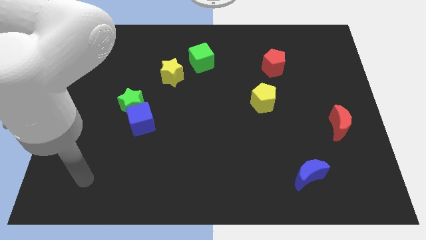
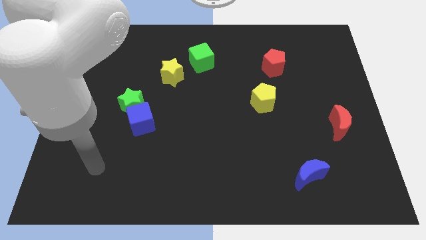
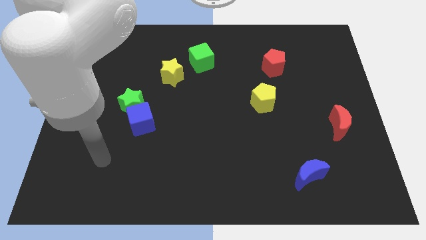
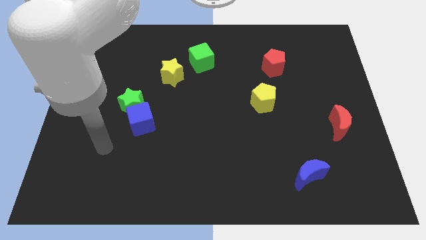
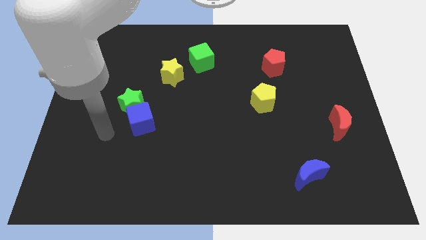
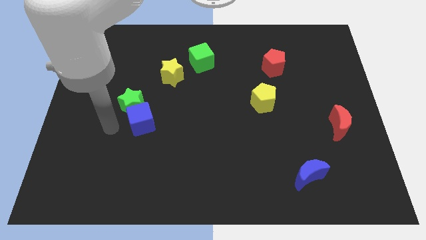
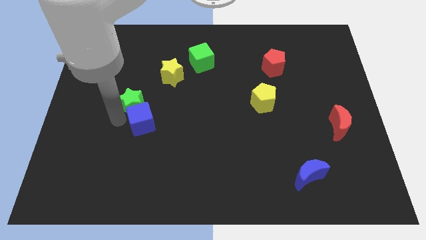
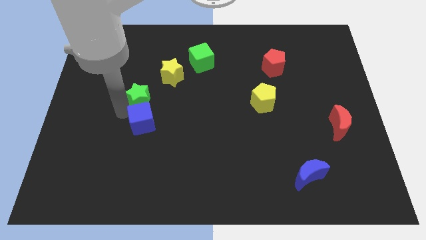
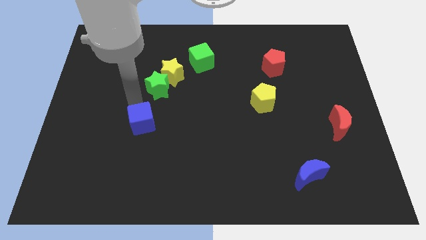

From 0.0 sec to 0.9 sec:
separate the blue cube from the green star

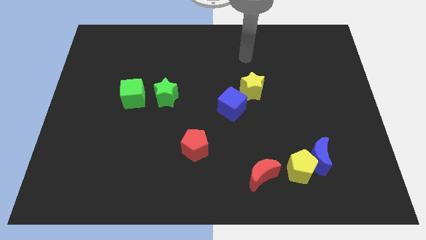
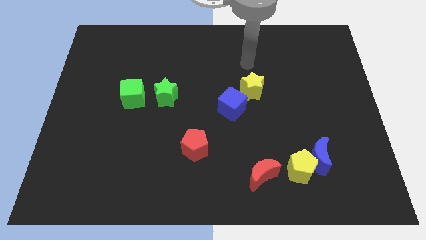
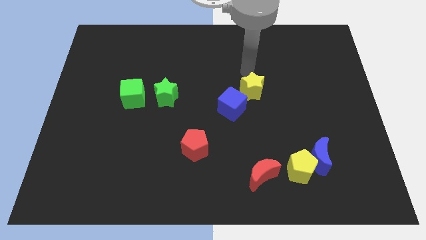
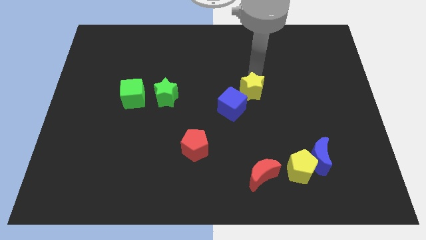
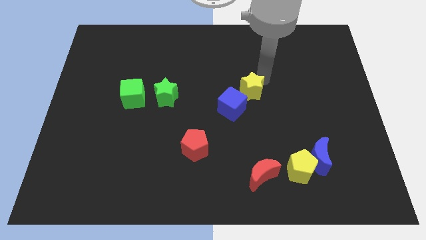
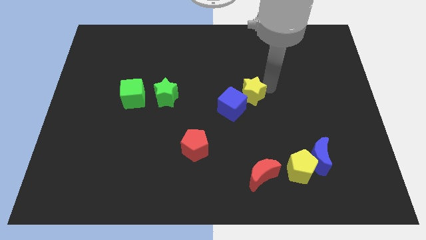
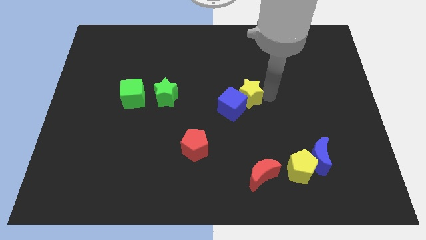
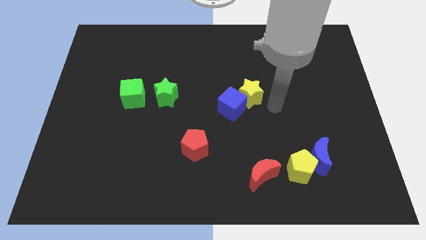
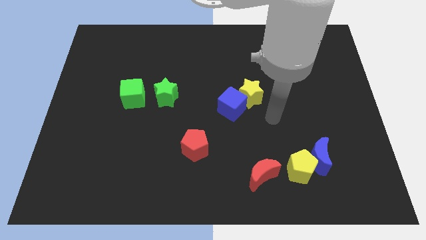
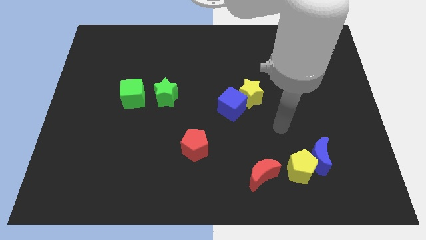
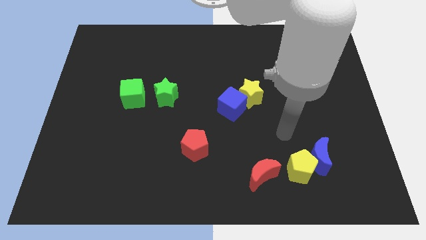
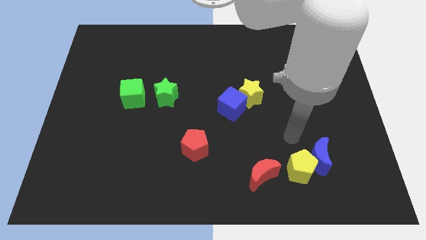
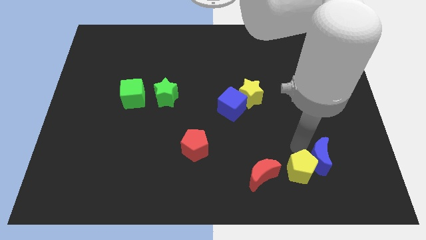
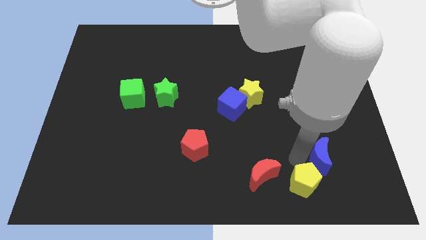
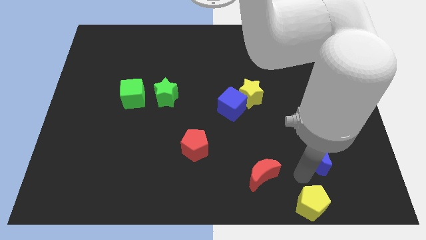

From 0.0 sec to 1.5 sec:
separate the blue moon from the yellow pentagon

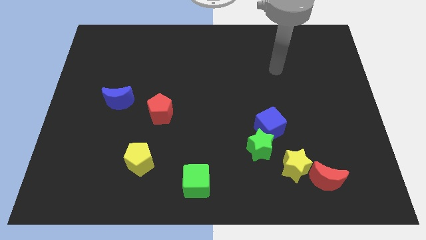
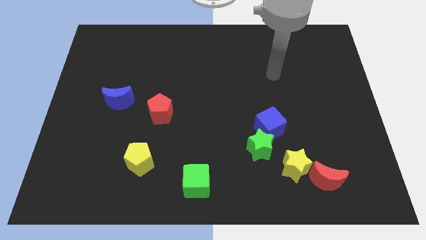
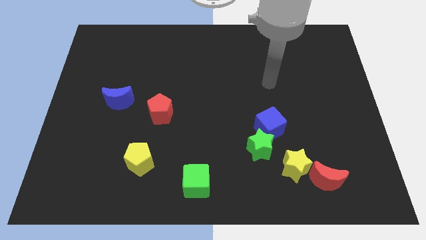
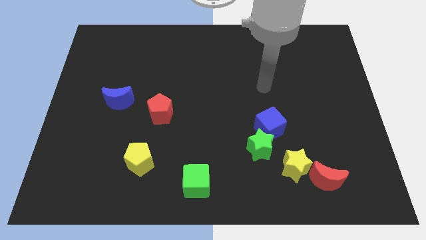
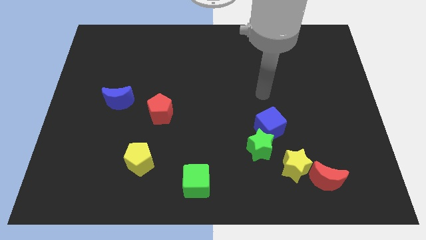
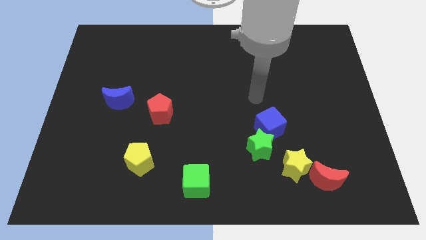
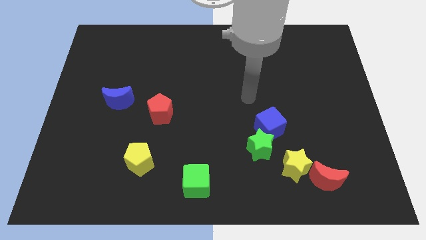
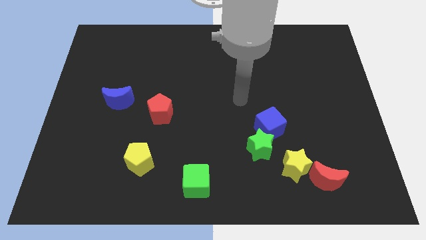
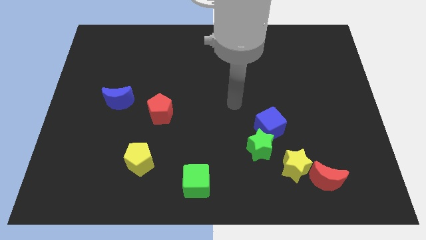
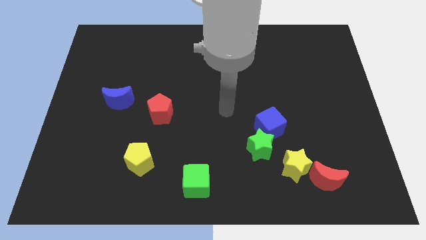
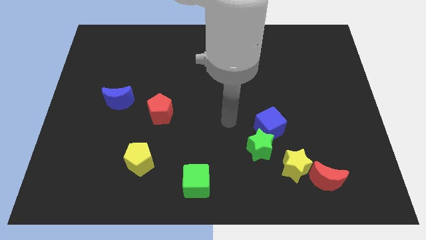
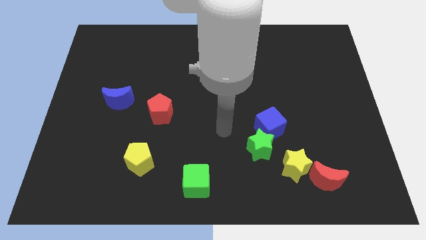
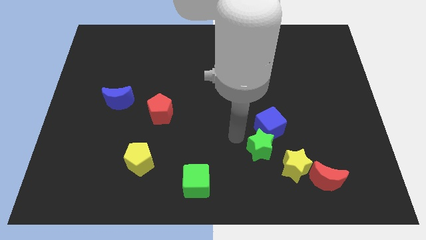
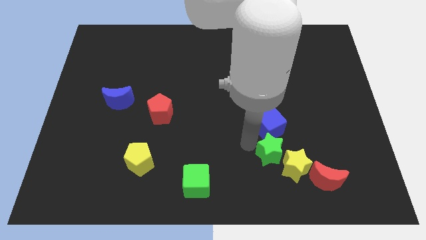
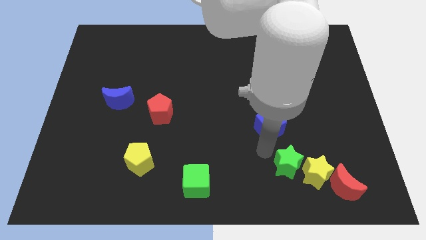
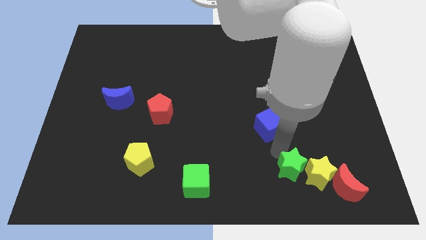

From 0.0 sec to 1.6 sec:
pull the blue cube apart from the green star

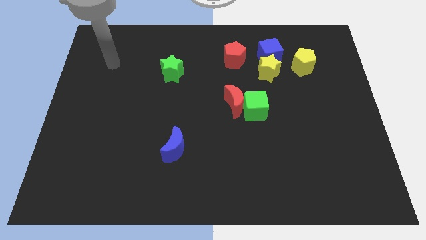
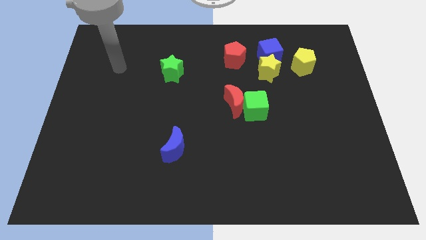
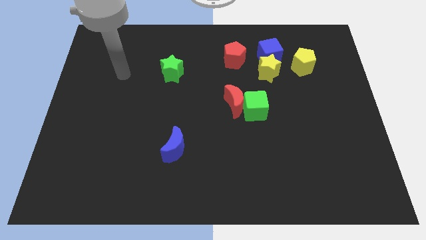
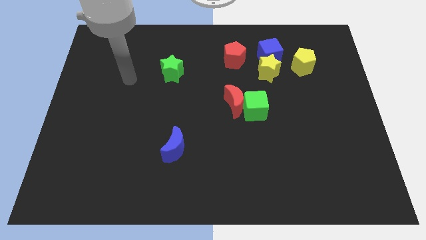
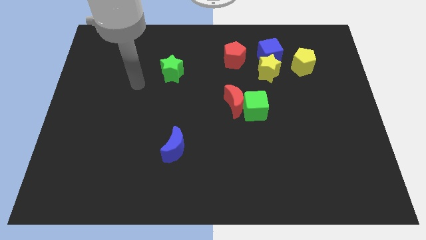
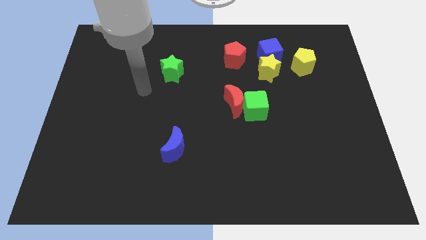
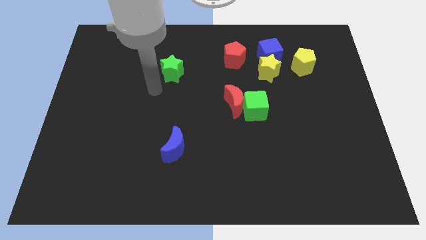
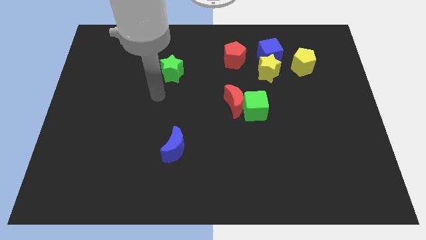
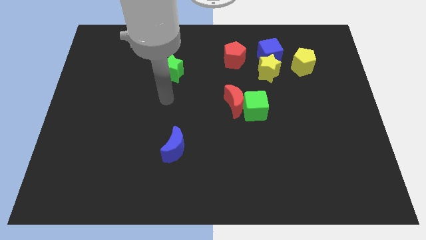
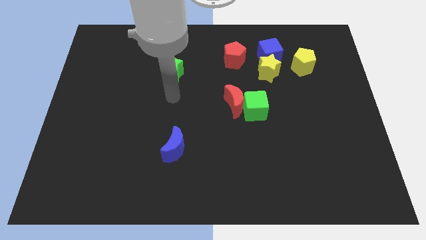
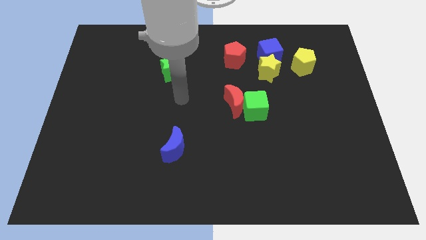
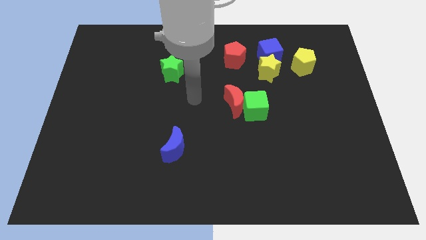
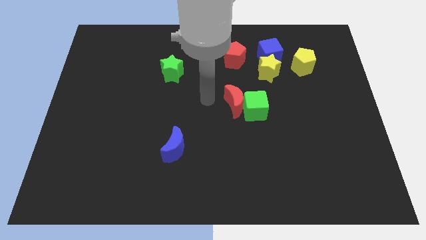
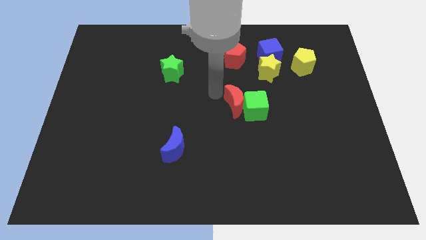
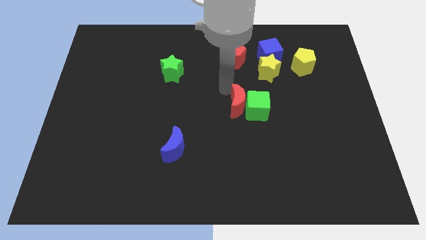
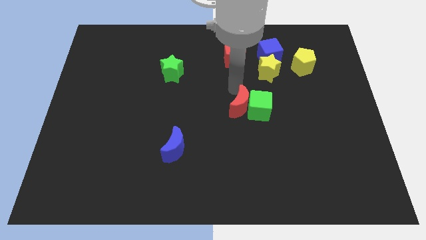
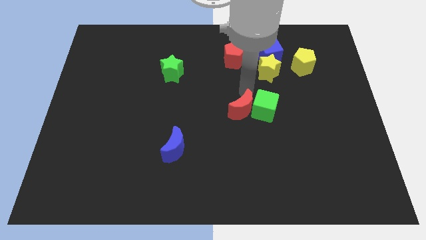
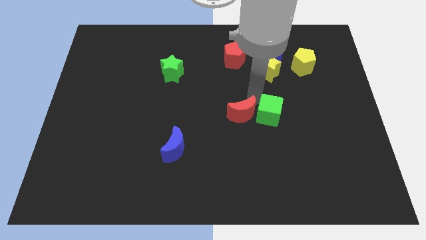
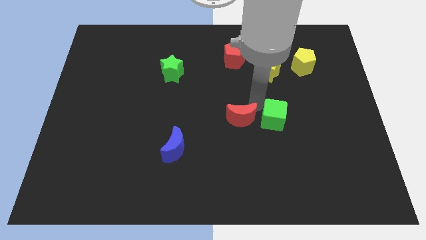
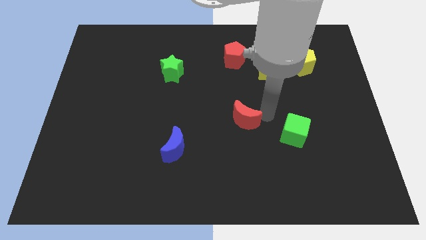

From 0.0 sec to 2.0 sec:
pull the red moon apart from the green cube

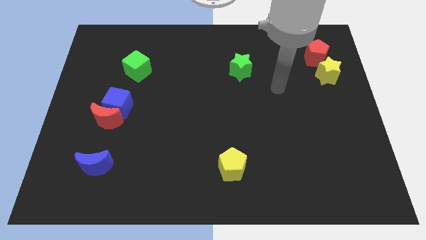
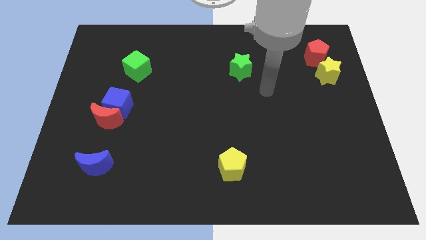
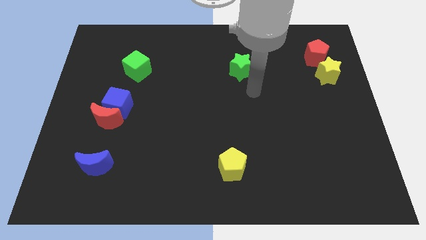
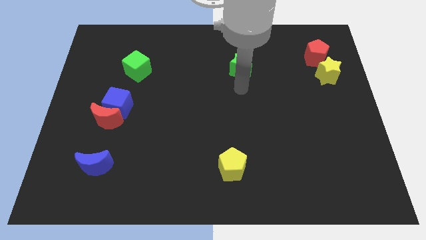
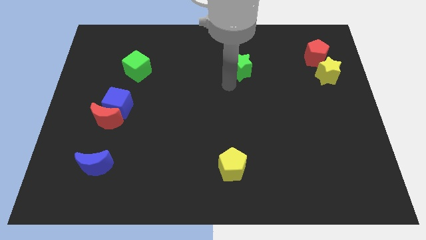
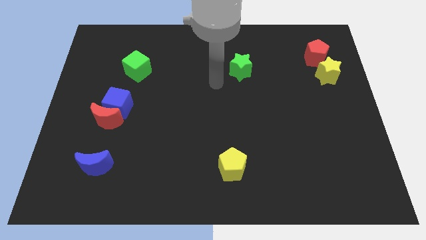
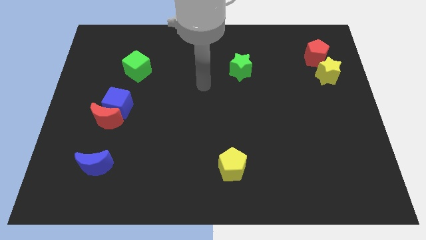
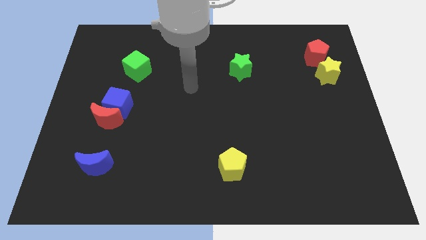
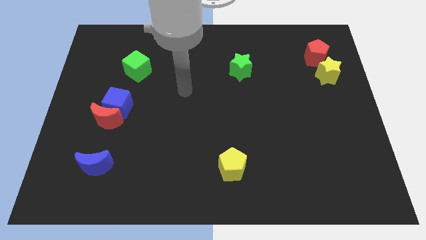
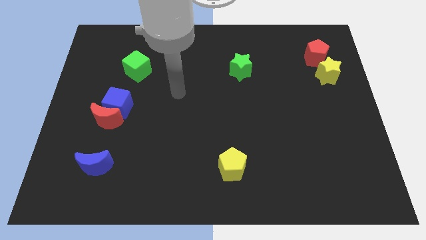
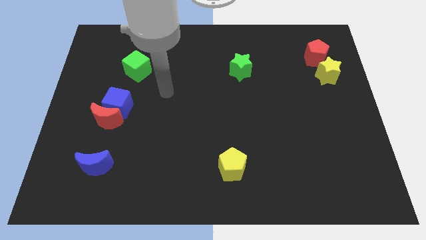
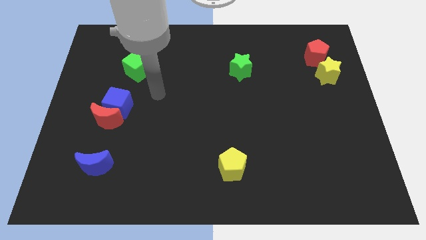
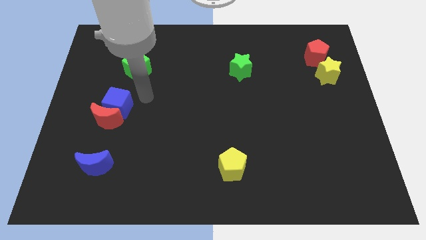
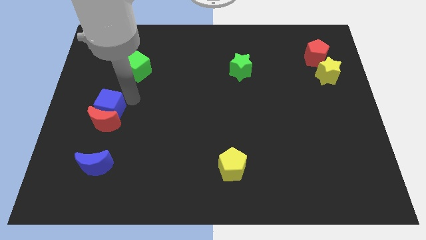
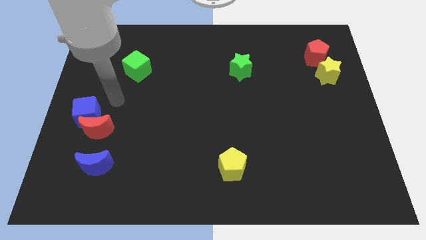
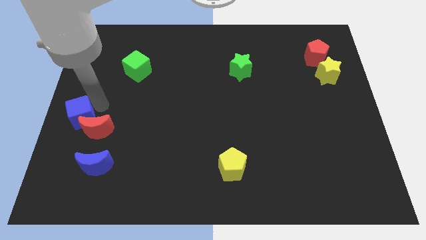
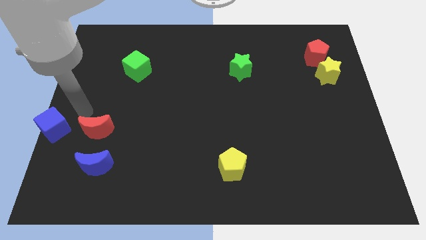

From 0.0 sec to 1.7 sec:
pull the red moon apart from the blue cube

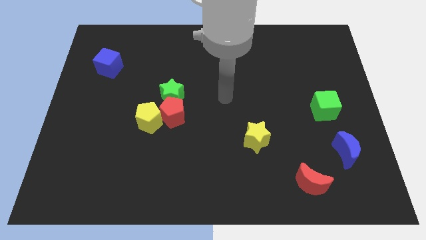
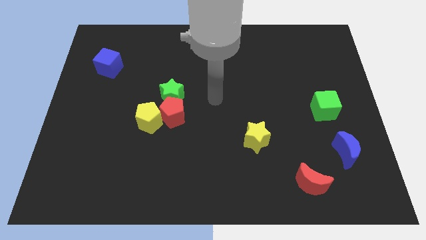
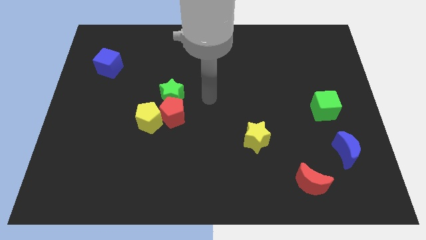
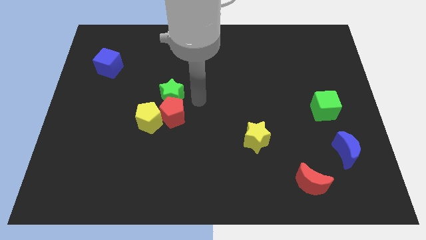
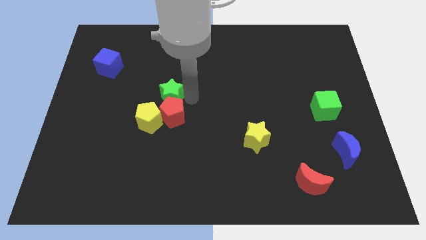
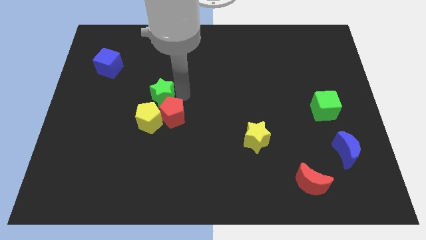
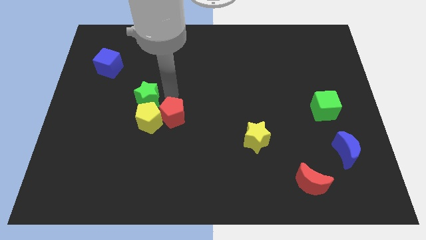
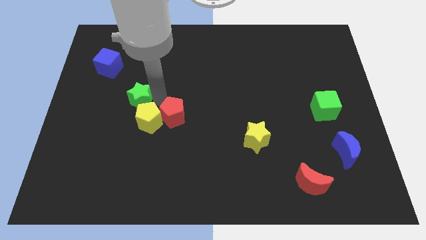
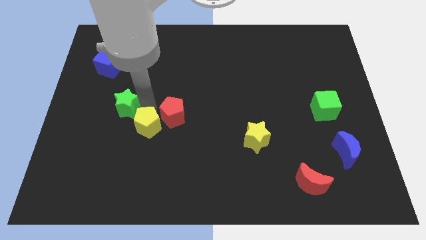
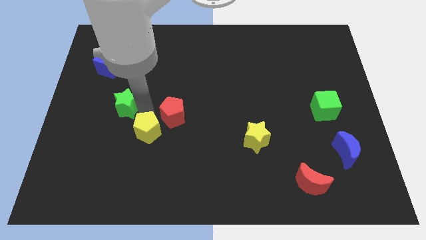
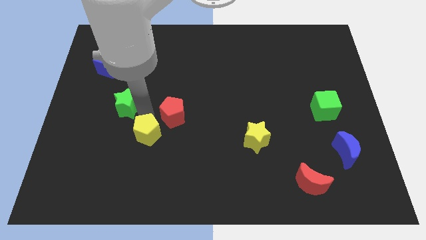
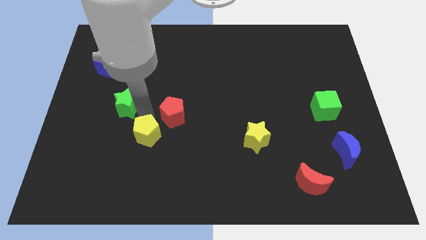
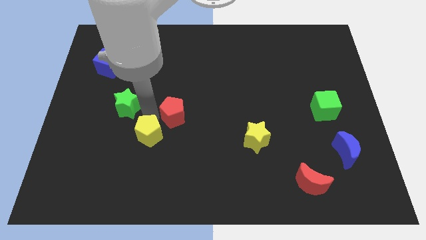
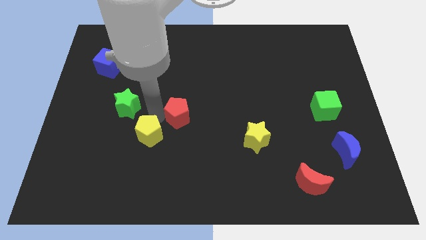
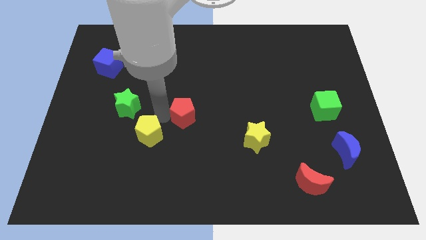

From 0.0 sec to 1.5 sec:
pull the red pentagon apart from the green star and yellow pentagon
